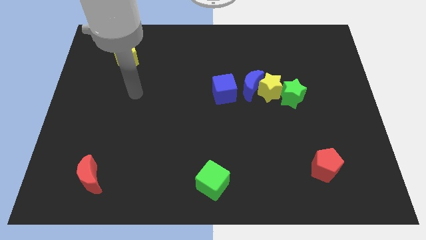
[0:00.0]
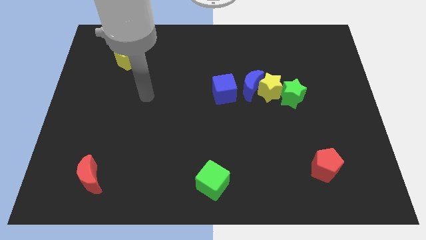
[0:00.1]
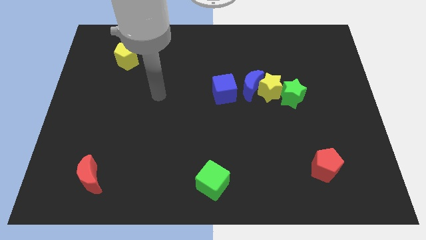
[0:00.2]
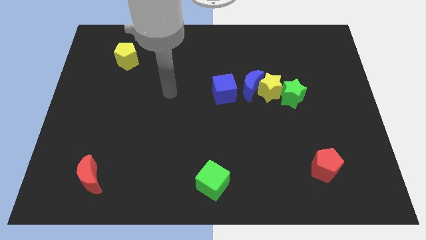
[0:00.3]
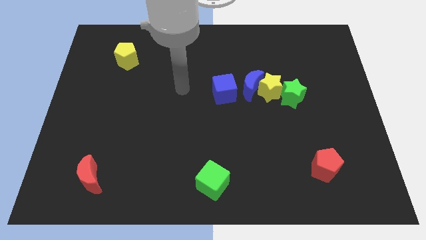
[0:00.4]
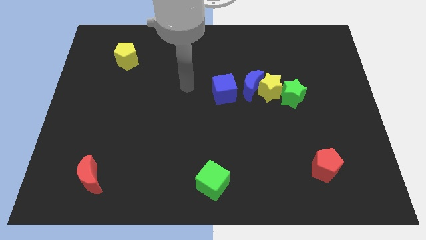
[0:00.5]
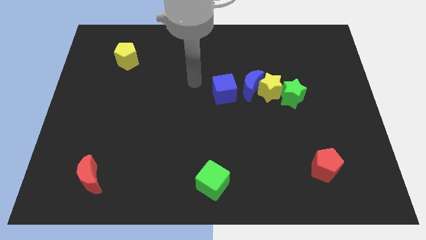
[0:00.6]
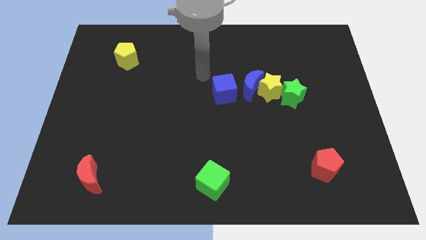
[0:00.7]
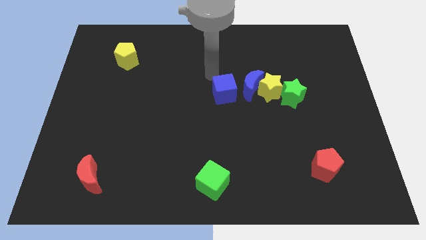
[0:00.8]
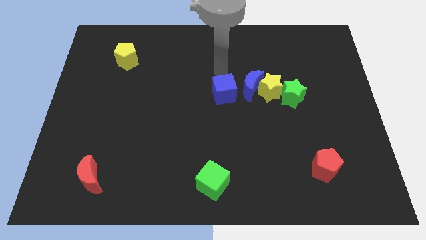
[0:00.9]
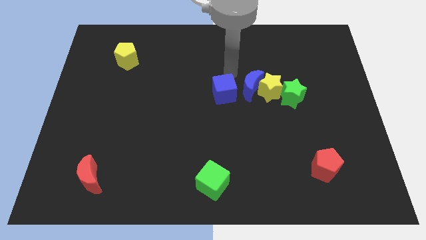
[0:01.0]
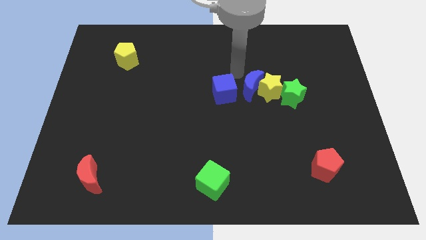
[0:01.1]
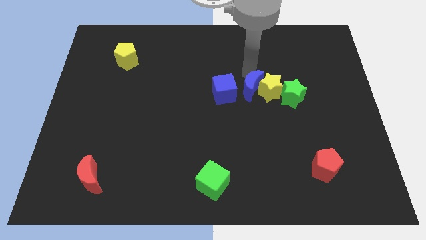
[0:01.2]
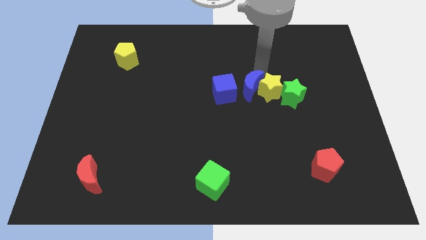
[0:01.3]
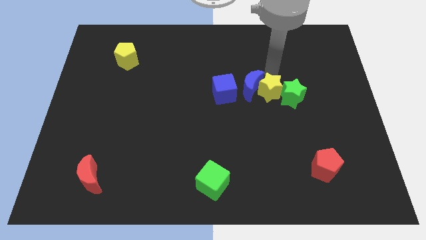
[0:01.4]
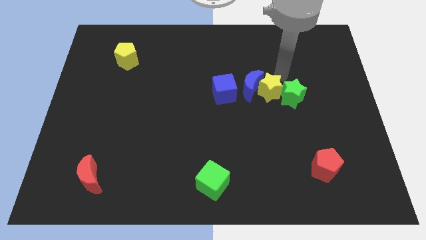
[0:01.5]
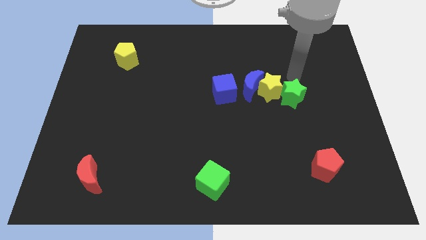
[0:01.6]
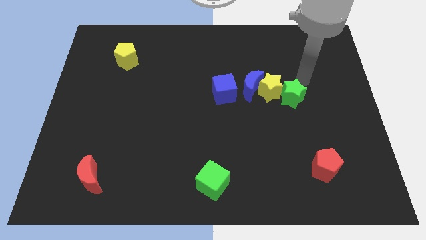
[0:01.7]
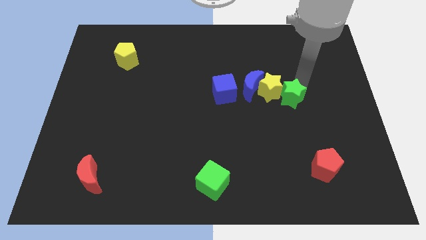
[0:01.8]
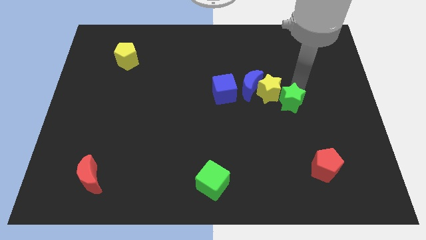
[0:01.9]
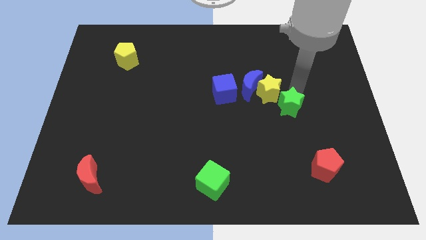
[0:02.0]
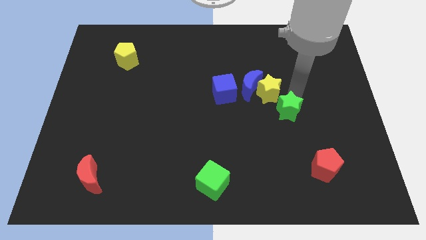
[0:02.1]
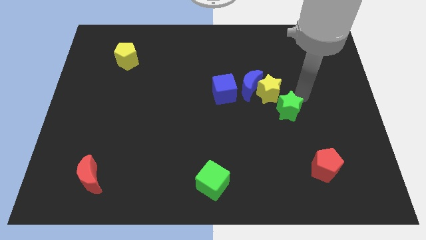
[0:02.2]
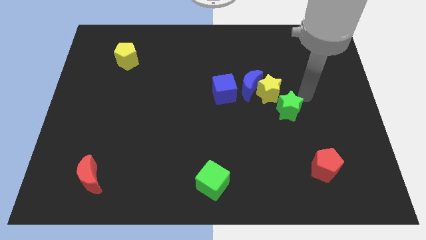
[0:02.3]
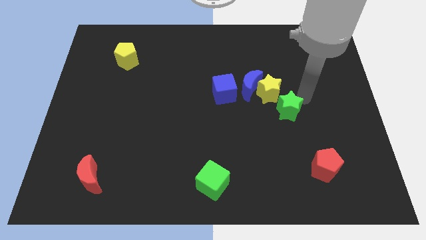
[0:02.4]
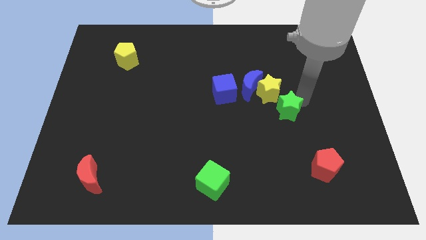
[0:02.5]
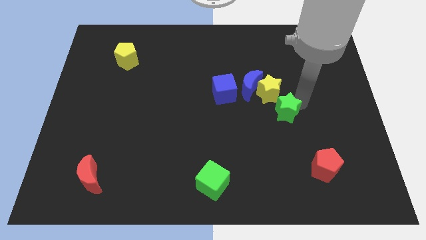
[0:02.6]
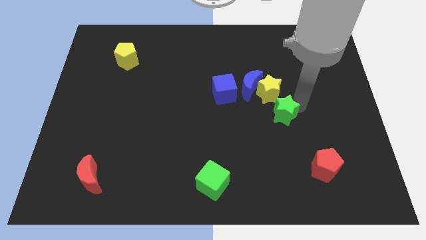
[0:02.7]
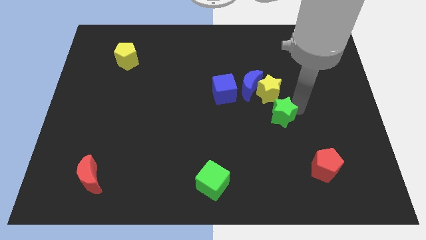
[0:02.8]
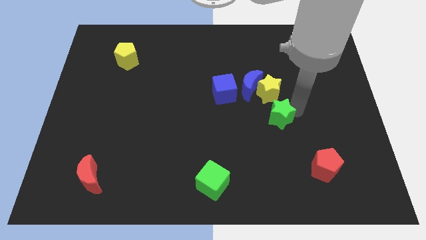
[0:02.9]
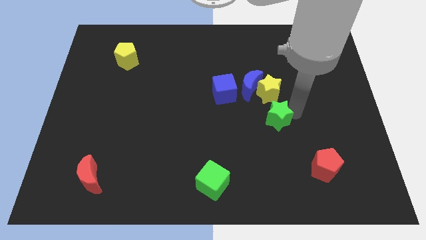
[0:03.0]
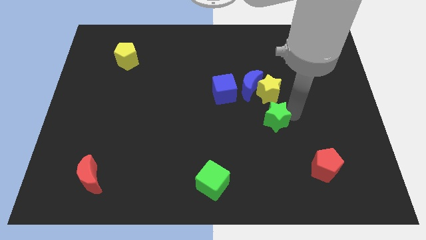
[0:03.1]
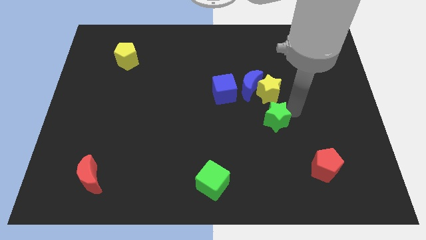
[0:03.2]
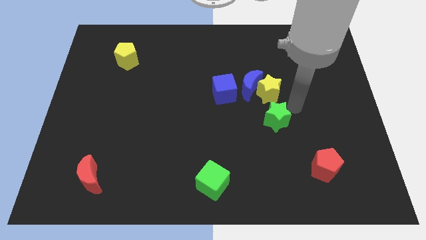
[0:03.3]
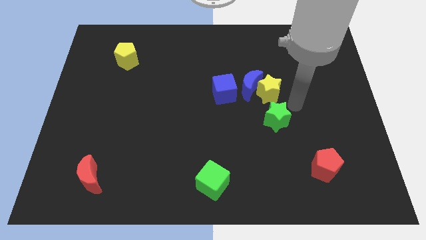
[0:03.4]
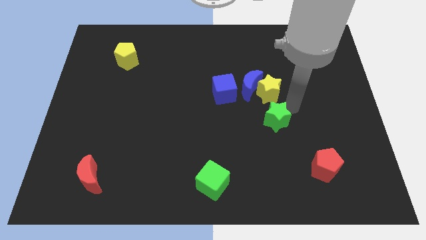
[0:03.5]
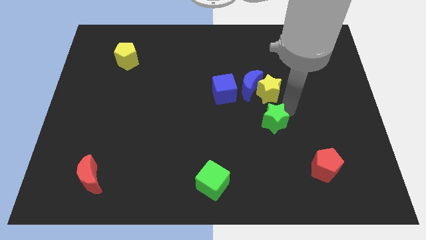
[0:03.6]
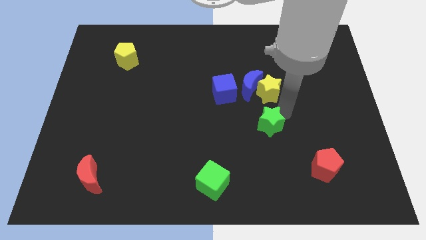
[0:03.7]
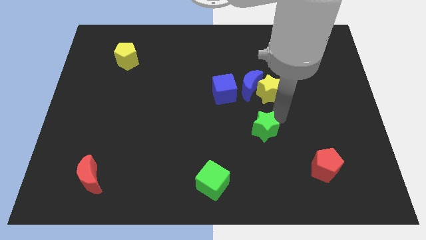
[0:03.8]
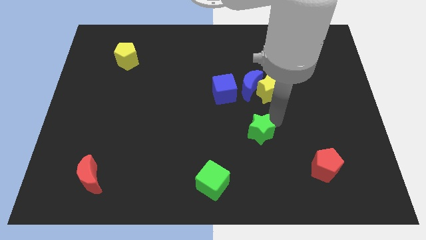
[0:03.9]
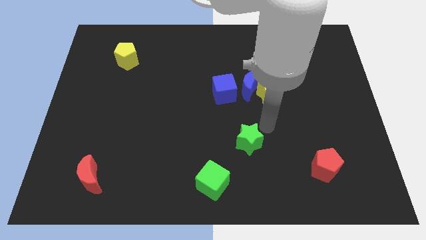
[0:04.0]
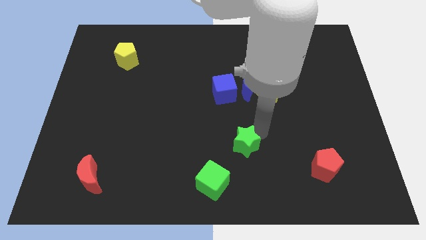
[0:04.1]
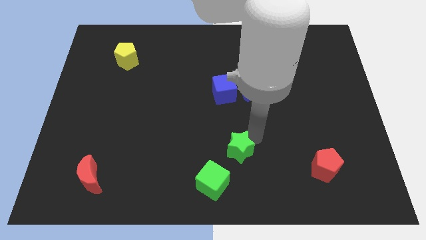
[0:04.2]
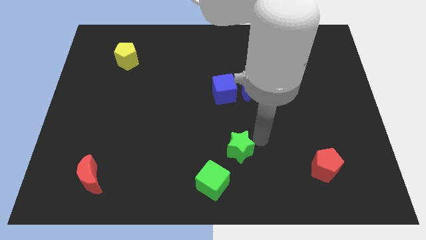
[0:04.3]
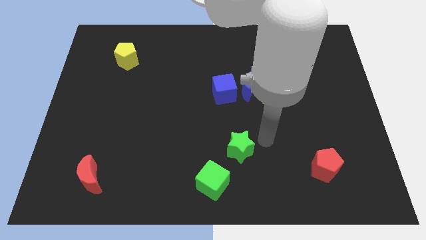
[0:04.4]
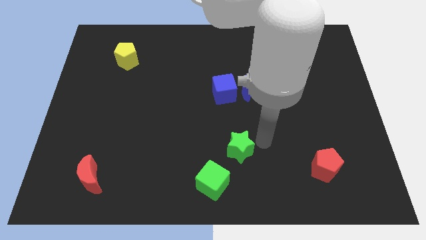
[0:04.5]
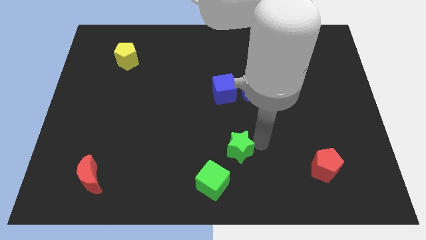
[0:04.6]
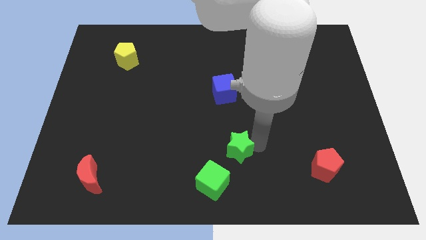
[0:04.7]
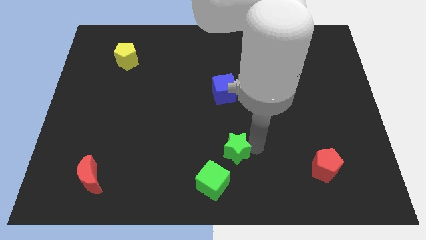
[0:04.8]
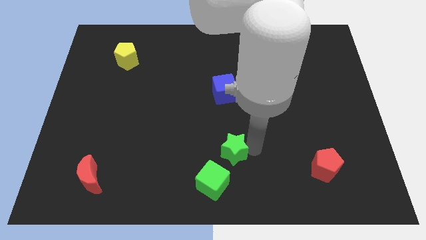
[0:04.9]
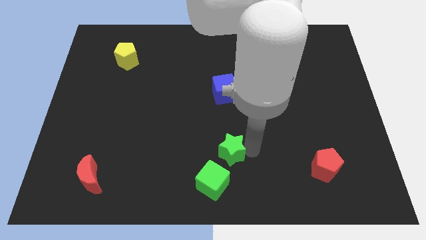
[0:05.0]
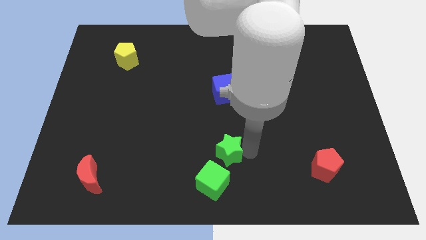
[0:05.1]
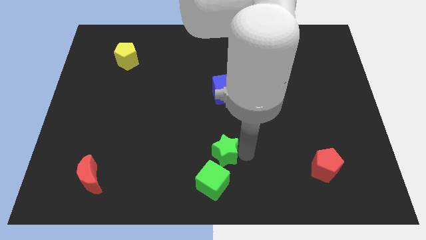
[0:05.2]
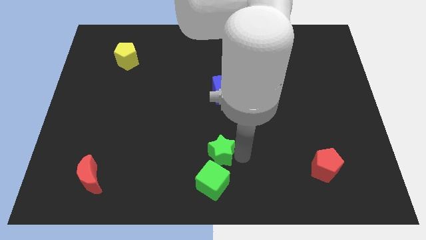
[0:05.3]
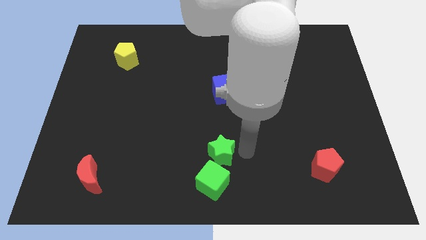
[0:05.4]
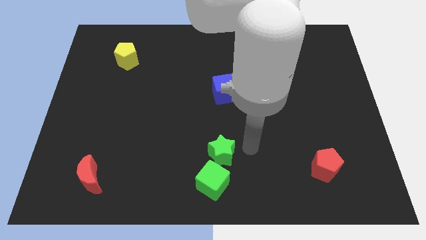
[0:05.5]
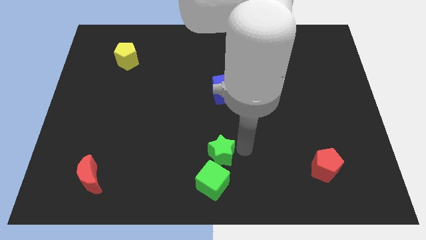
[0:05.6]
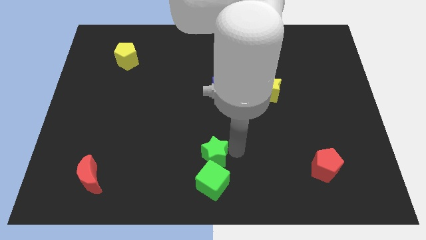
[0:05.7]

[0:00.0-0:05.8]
move the green star to the top left of the green cube

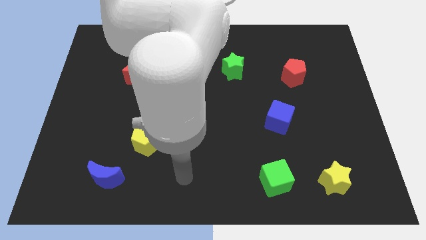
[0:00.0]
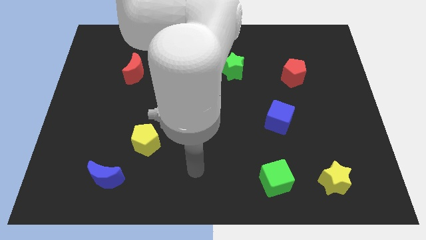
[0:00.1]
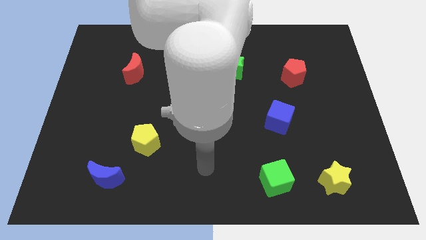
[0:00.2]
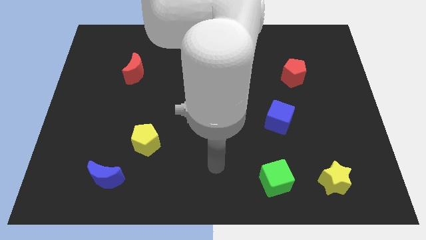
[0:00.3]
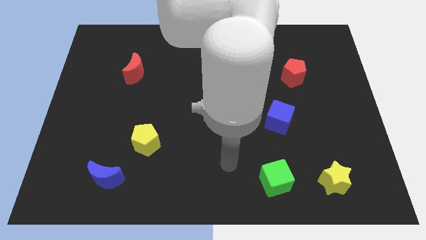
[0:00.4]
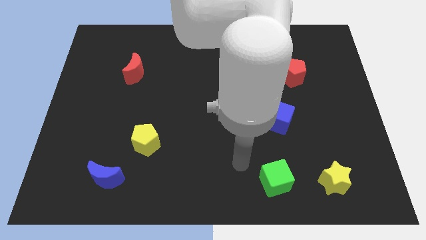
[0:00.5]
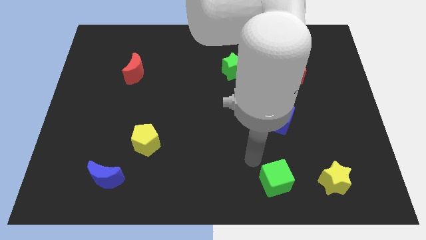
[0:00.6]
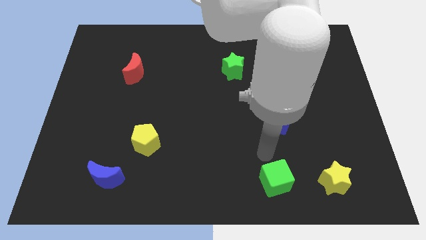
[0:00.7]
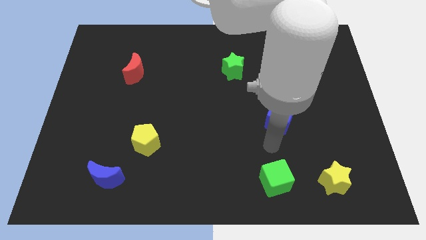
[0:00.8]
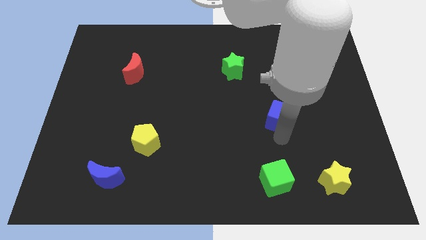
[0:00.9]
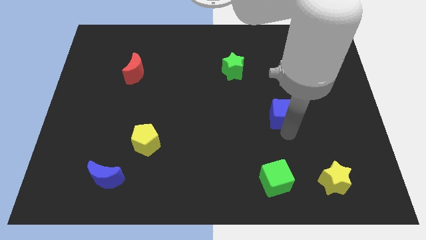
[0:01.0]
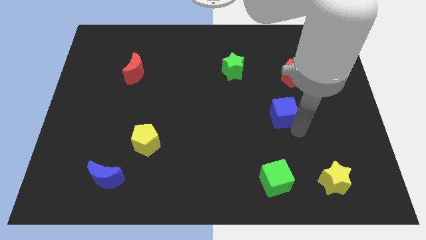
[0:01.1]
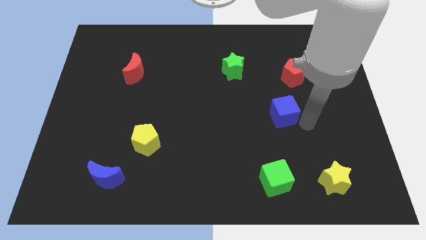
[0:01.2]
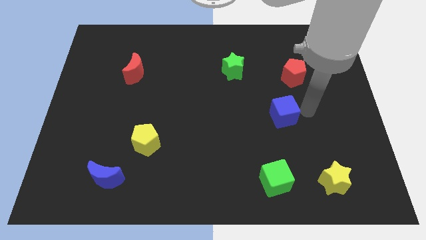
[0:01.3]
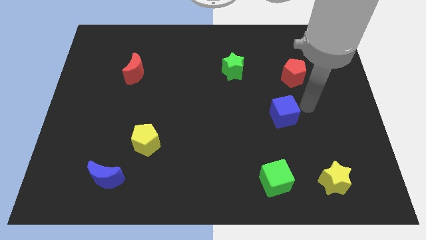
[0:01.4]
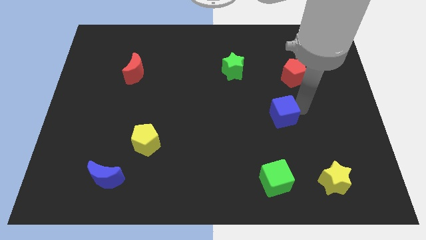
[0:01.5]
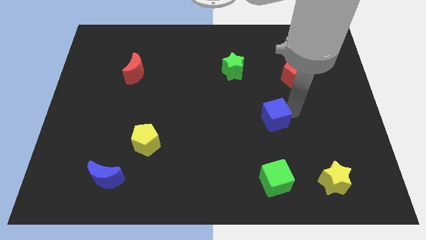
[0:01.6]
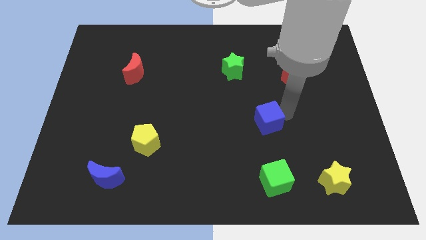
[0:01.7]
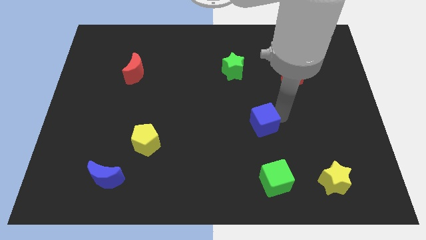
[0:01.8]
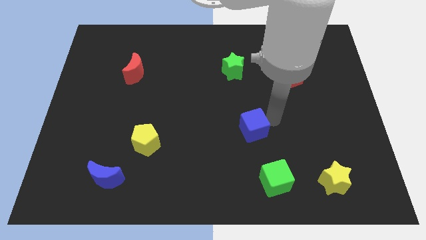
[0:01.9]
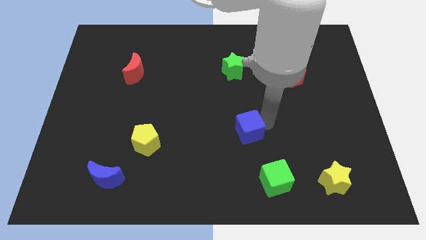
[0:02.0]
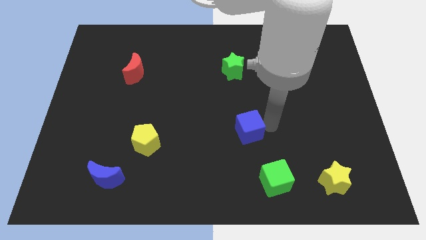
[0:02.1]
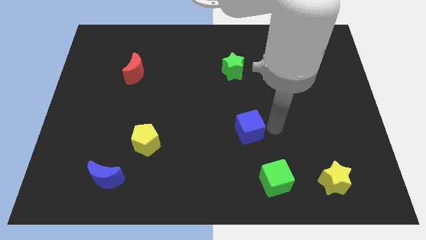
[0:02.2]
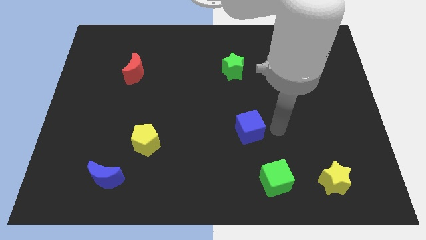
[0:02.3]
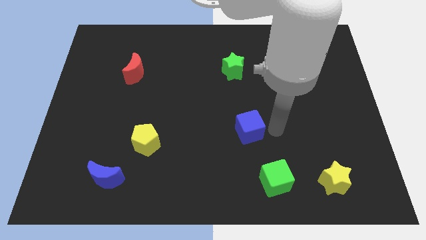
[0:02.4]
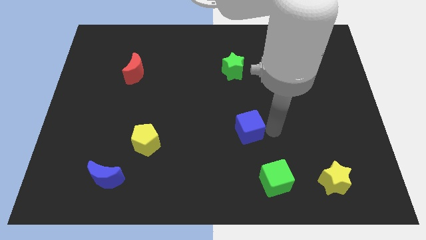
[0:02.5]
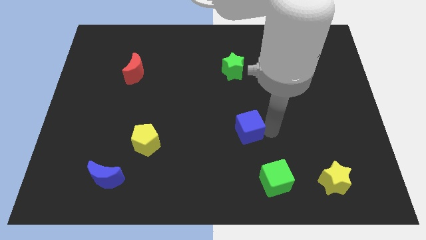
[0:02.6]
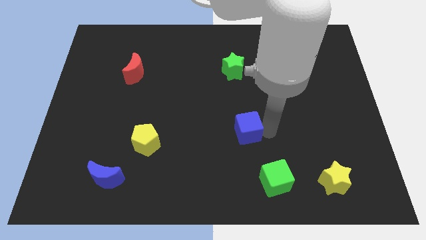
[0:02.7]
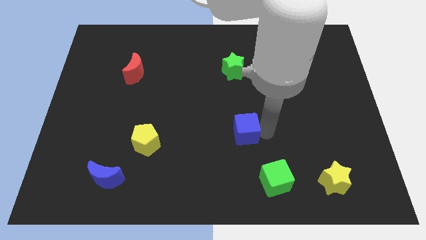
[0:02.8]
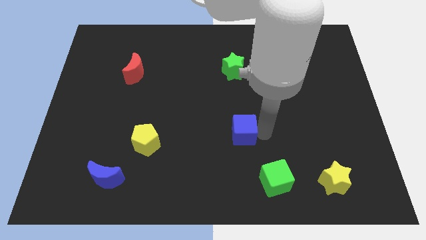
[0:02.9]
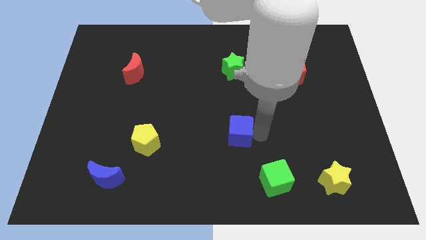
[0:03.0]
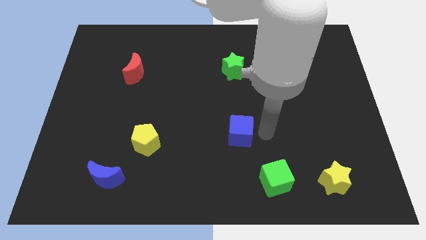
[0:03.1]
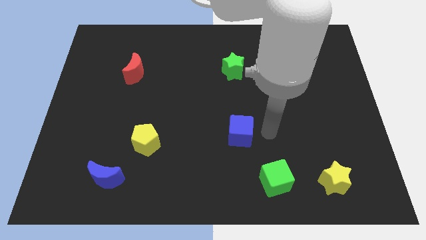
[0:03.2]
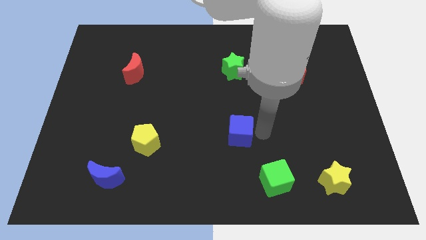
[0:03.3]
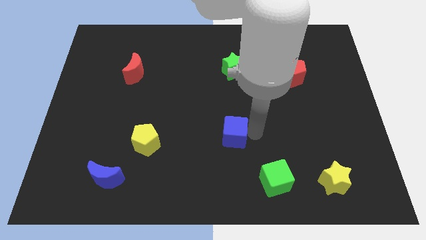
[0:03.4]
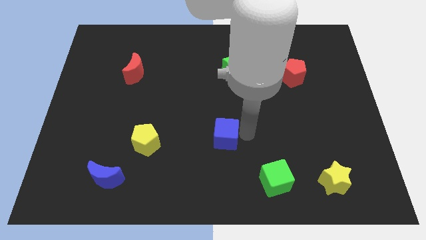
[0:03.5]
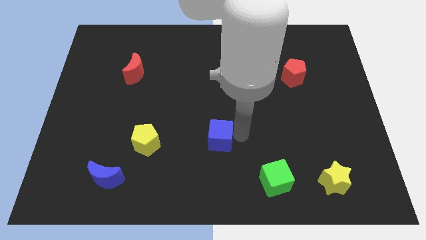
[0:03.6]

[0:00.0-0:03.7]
put the blue cube just right of the yellow pentagon
